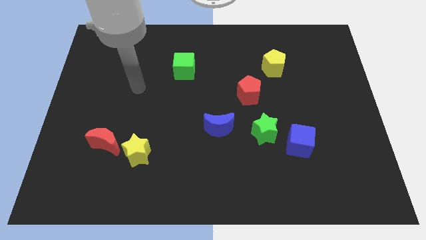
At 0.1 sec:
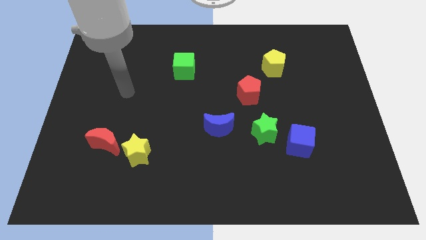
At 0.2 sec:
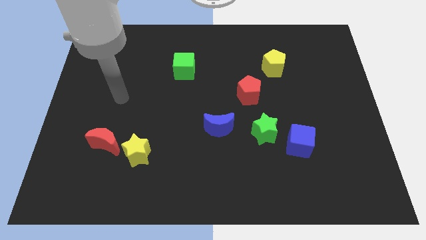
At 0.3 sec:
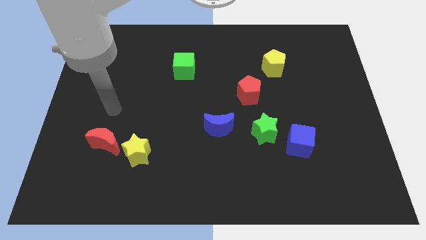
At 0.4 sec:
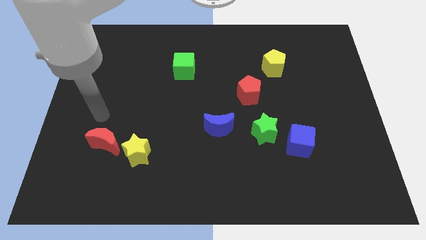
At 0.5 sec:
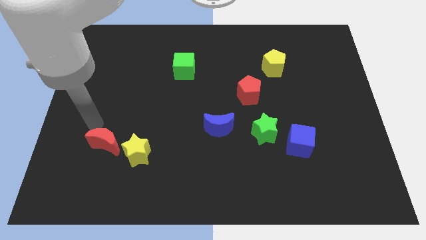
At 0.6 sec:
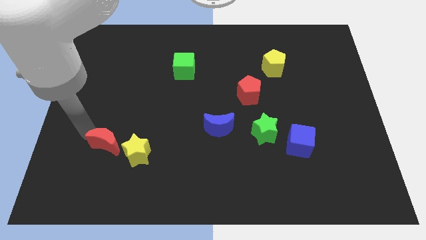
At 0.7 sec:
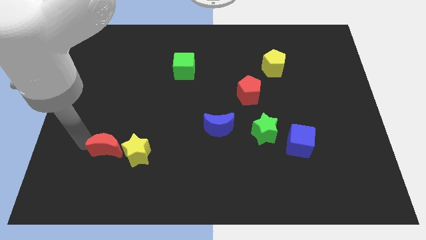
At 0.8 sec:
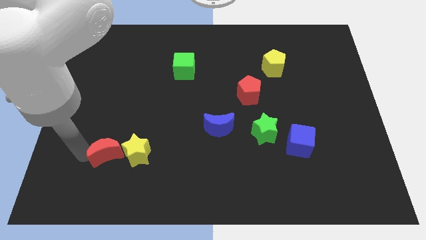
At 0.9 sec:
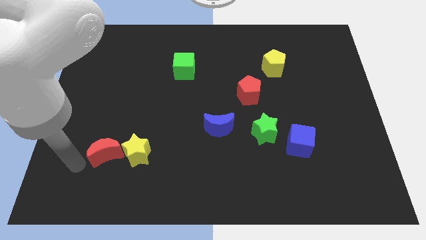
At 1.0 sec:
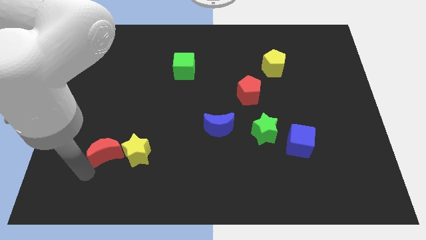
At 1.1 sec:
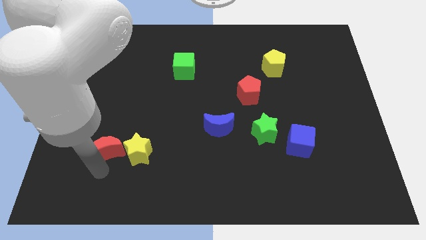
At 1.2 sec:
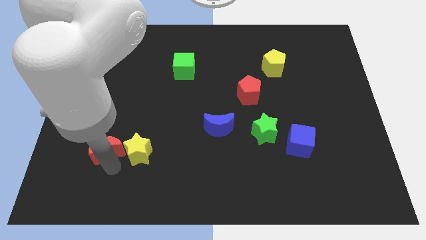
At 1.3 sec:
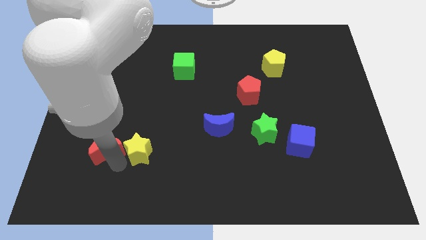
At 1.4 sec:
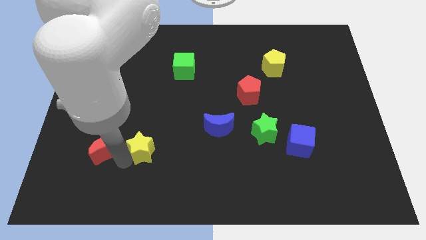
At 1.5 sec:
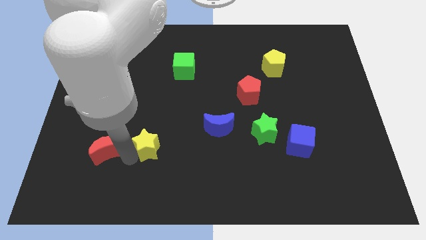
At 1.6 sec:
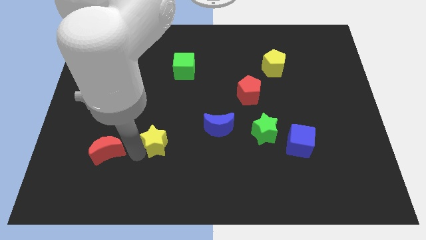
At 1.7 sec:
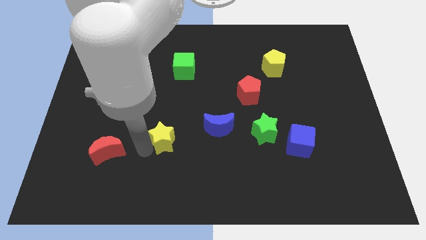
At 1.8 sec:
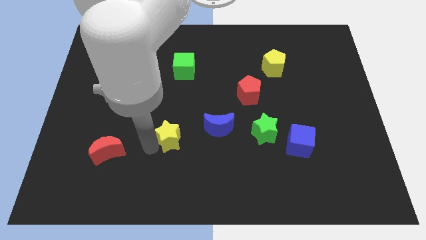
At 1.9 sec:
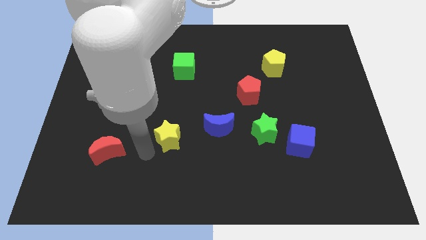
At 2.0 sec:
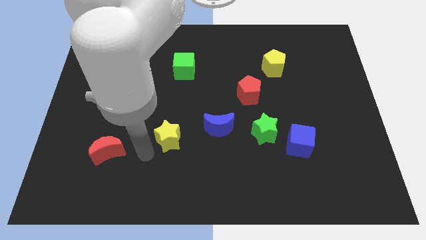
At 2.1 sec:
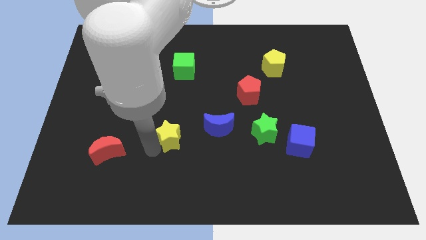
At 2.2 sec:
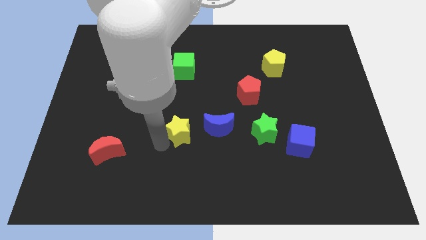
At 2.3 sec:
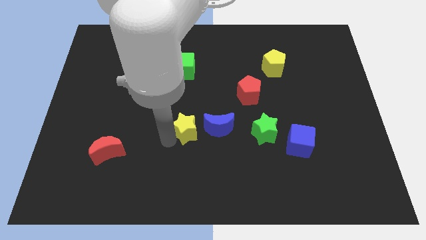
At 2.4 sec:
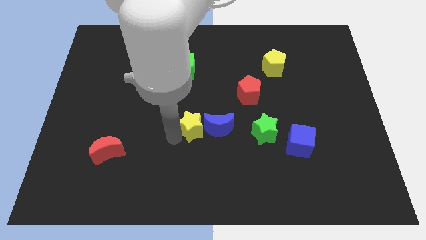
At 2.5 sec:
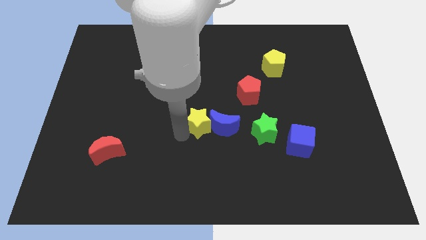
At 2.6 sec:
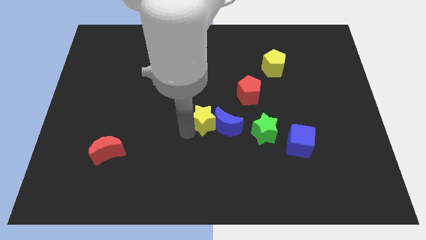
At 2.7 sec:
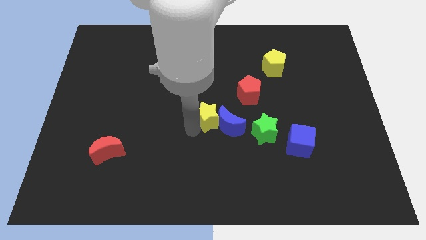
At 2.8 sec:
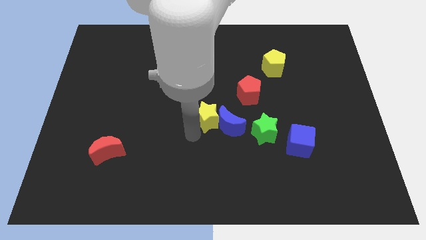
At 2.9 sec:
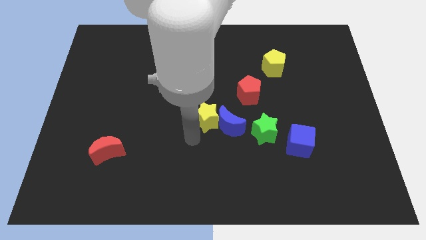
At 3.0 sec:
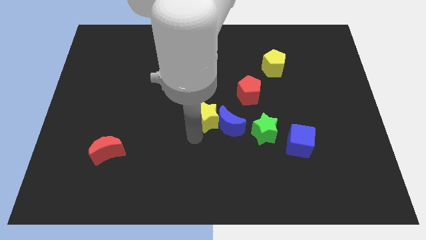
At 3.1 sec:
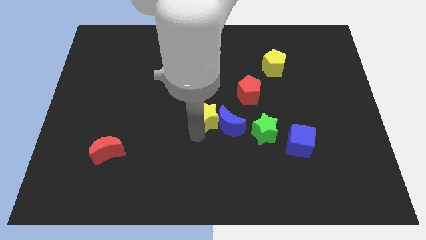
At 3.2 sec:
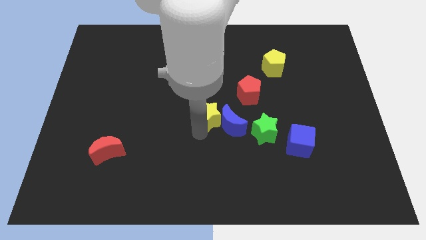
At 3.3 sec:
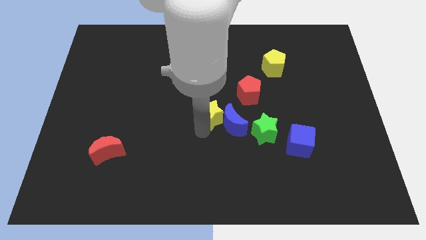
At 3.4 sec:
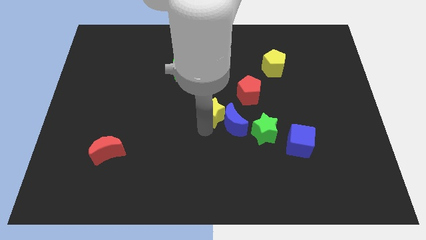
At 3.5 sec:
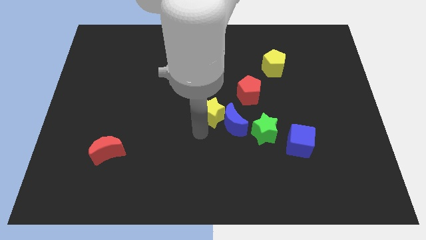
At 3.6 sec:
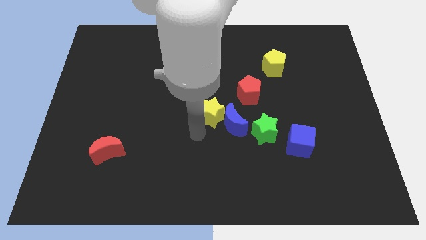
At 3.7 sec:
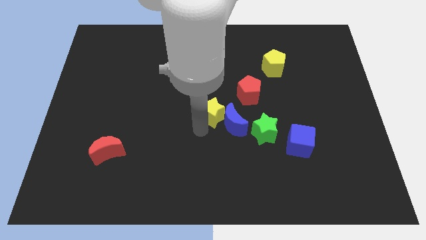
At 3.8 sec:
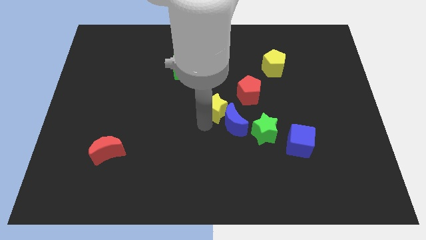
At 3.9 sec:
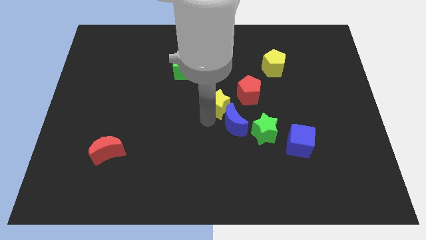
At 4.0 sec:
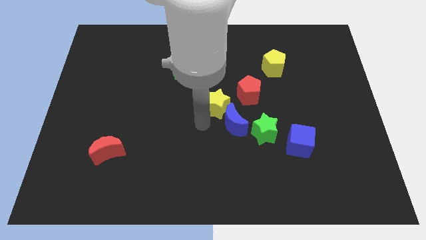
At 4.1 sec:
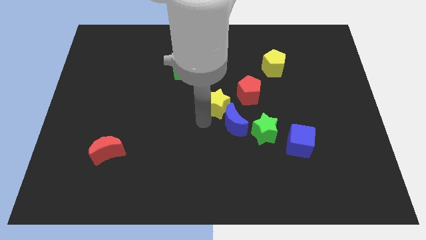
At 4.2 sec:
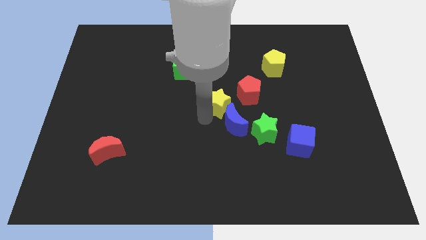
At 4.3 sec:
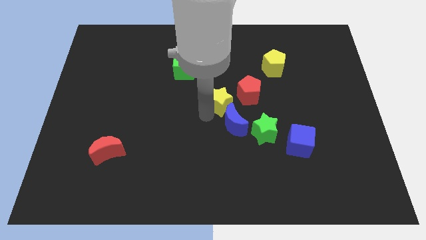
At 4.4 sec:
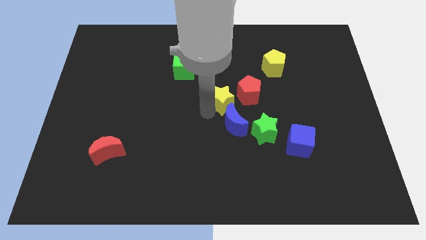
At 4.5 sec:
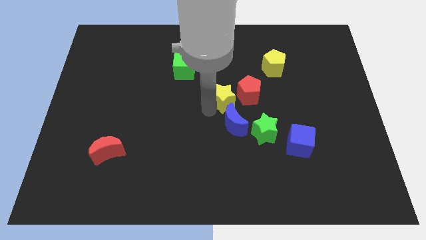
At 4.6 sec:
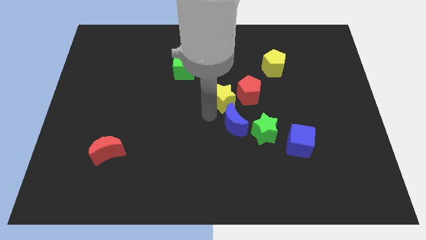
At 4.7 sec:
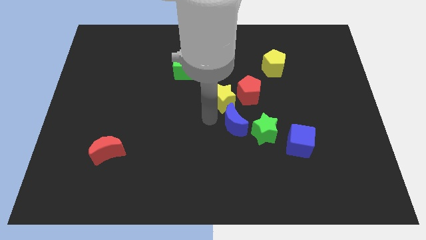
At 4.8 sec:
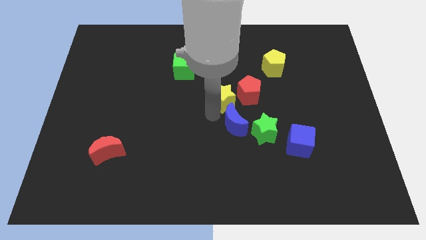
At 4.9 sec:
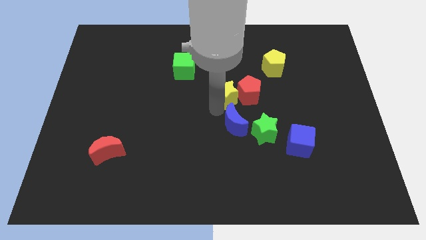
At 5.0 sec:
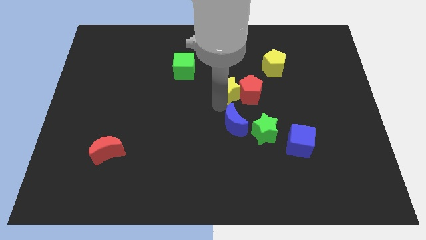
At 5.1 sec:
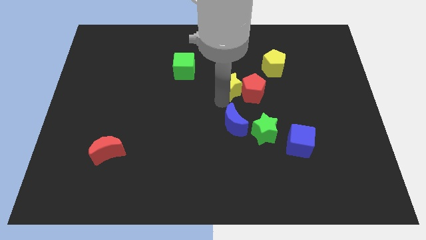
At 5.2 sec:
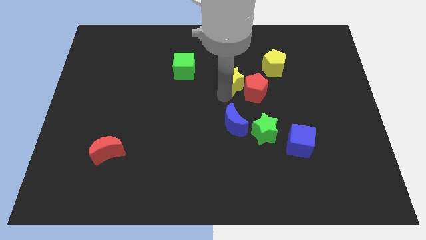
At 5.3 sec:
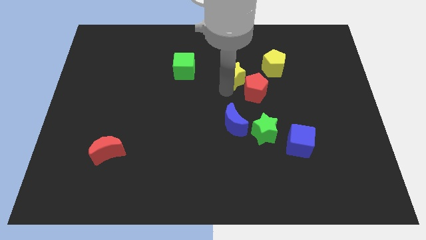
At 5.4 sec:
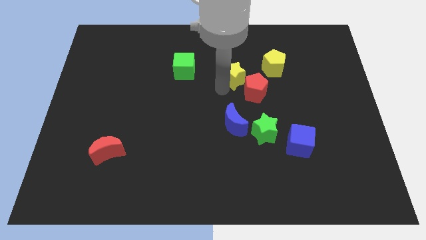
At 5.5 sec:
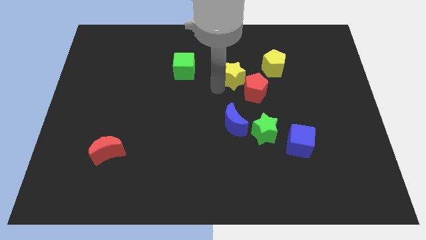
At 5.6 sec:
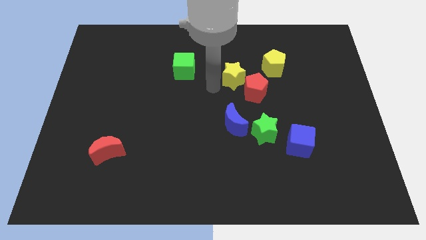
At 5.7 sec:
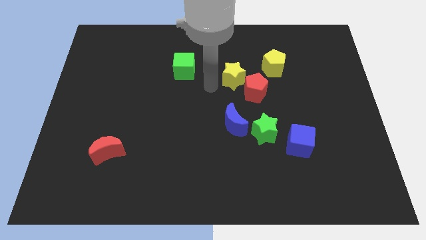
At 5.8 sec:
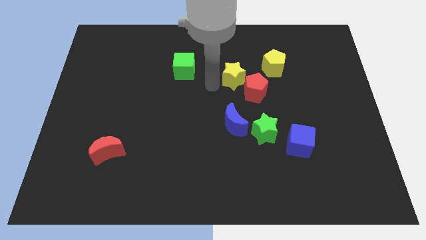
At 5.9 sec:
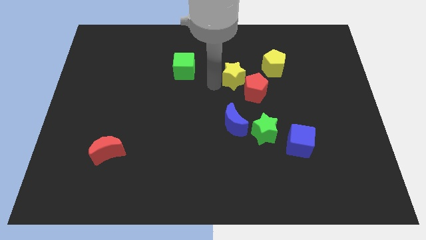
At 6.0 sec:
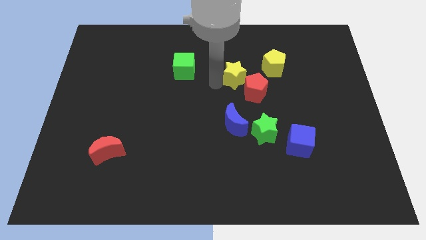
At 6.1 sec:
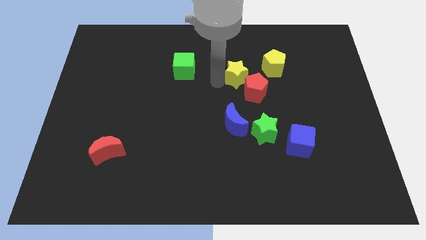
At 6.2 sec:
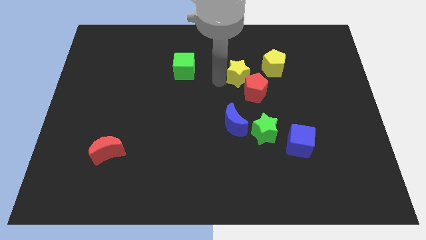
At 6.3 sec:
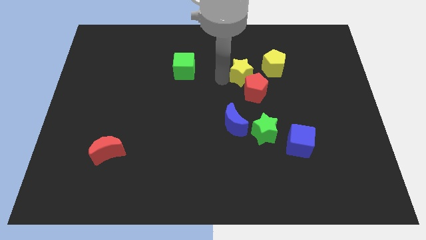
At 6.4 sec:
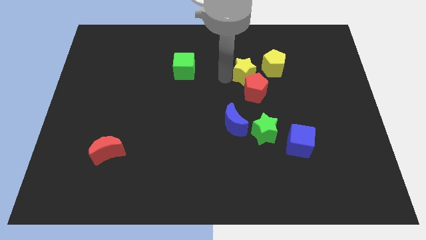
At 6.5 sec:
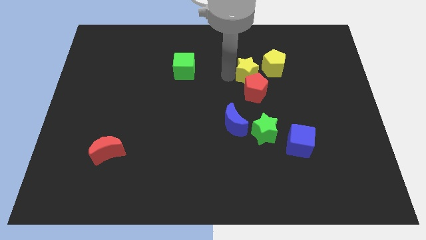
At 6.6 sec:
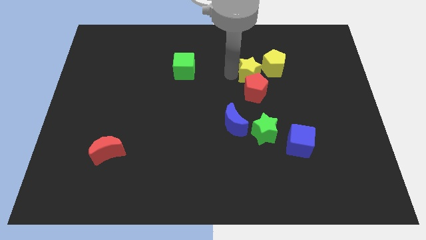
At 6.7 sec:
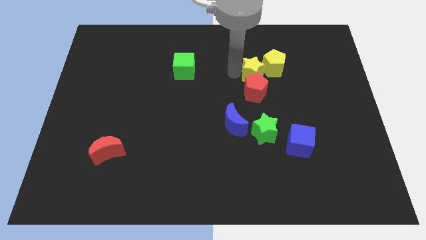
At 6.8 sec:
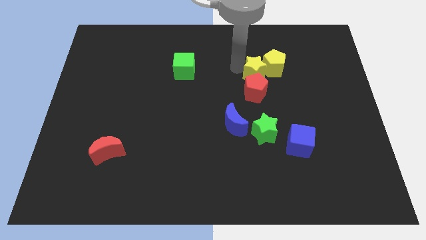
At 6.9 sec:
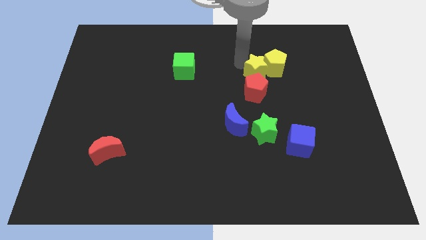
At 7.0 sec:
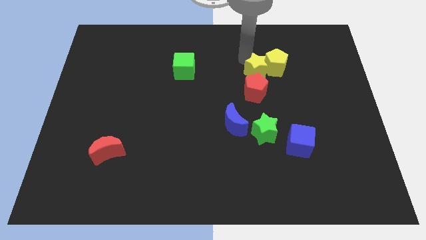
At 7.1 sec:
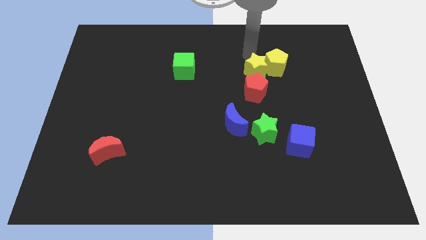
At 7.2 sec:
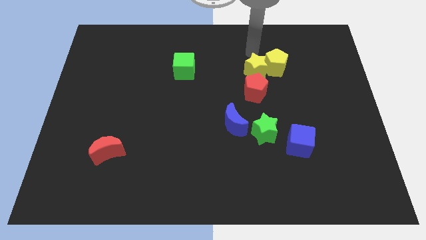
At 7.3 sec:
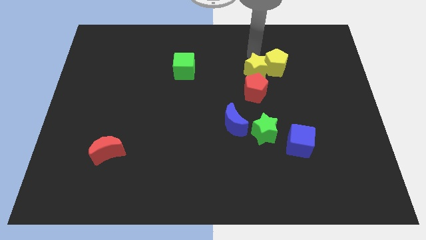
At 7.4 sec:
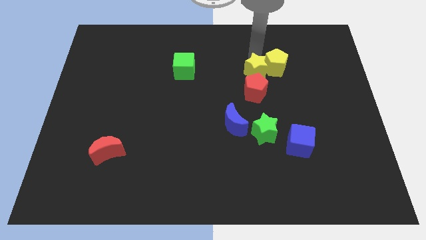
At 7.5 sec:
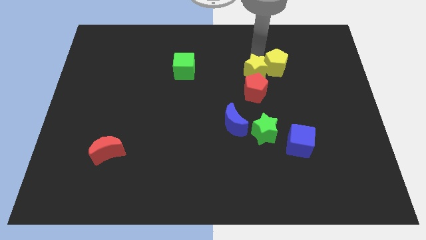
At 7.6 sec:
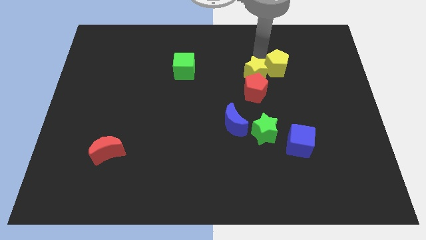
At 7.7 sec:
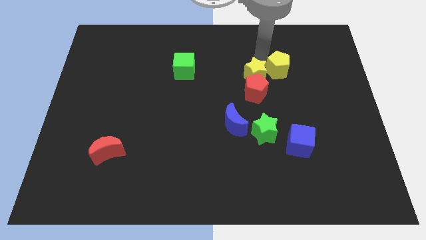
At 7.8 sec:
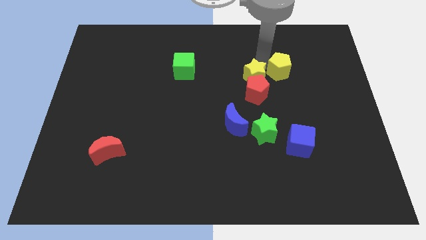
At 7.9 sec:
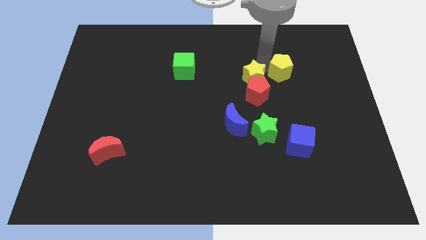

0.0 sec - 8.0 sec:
slide the yellow star above the green star
